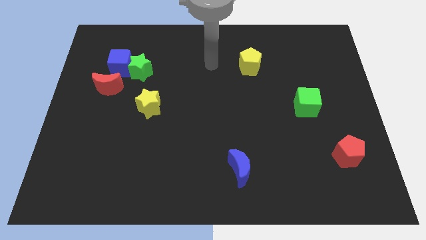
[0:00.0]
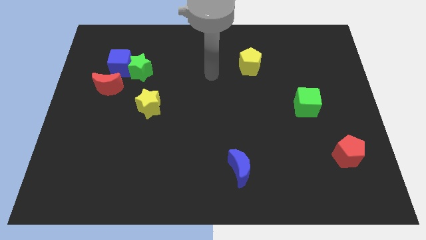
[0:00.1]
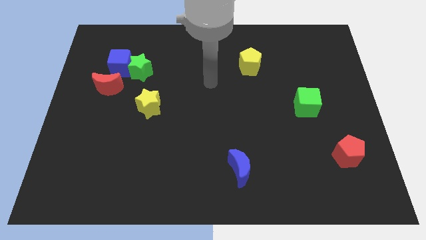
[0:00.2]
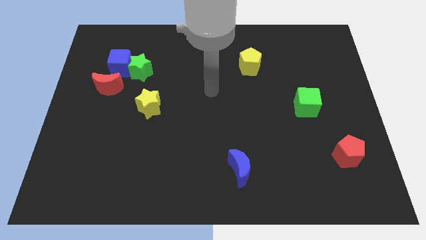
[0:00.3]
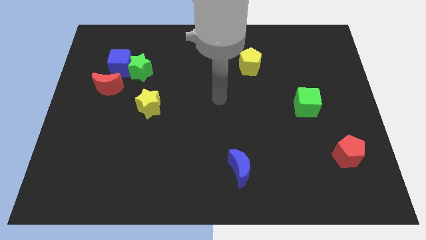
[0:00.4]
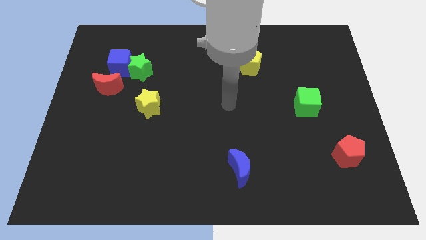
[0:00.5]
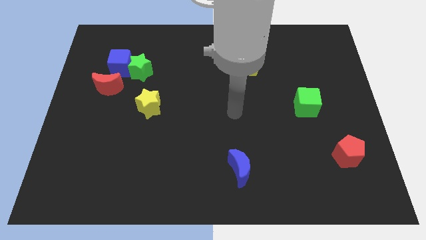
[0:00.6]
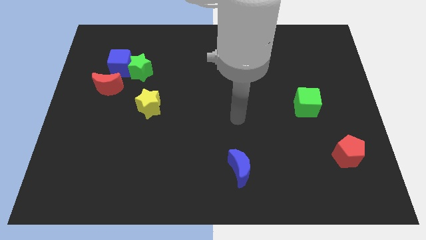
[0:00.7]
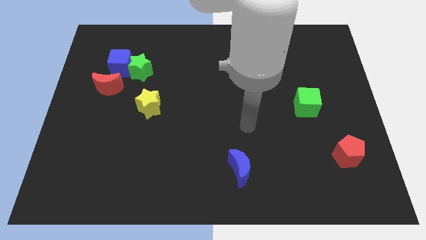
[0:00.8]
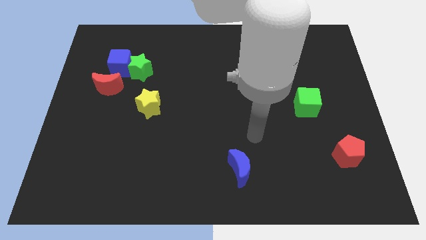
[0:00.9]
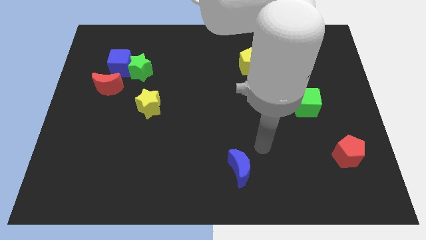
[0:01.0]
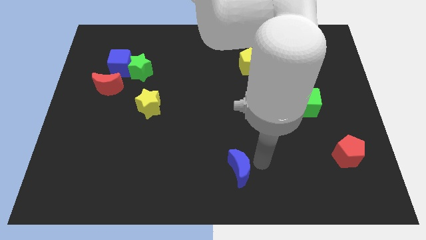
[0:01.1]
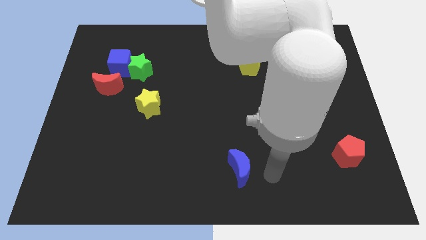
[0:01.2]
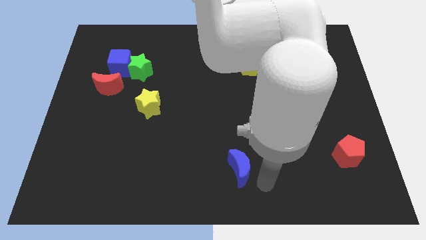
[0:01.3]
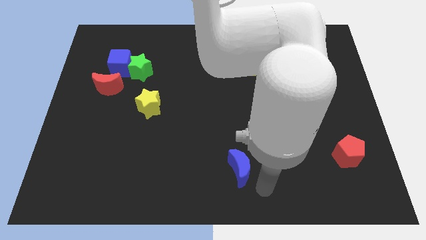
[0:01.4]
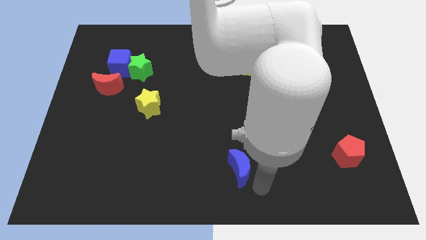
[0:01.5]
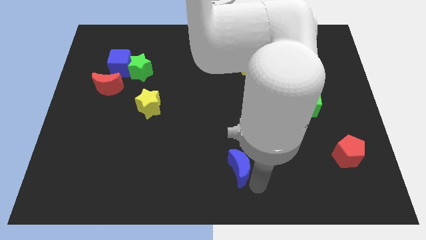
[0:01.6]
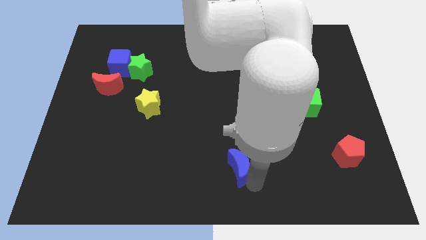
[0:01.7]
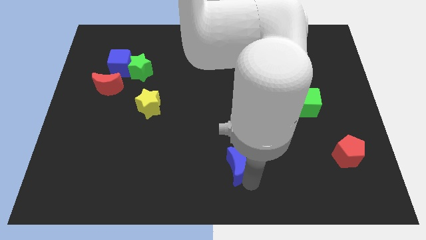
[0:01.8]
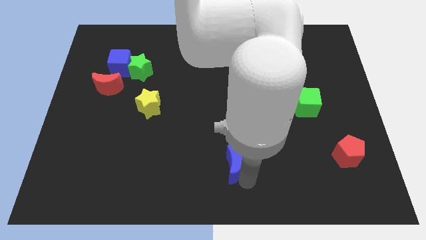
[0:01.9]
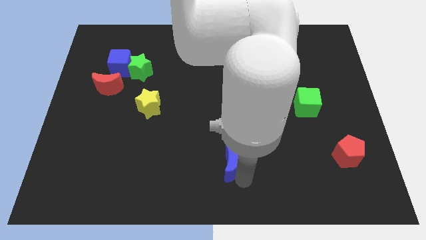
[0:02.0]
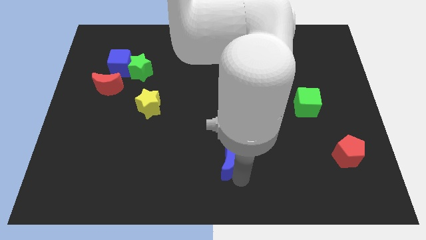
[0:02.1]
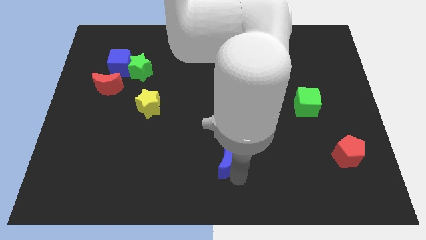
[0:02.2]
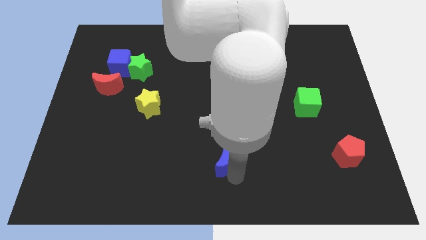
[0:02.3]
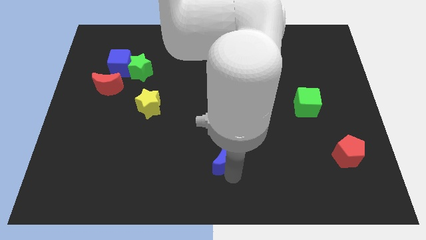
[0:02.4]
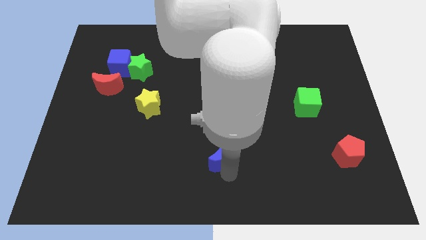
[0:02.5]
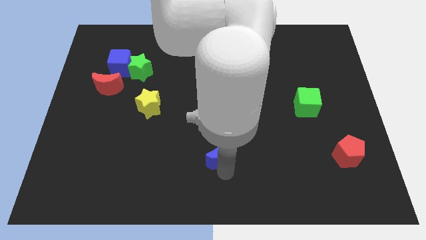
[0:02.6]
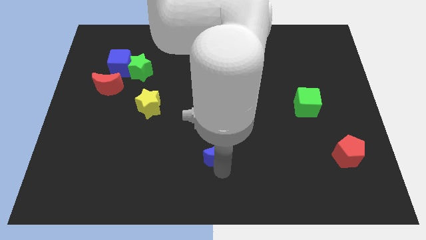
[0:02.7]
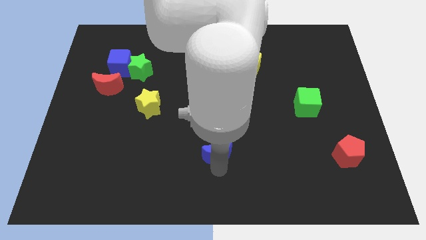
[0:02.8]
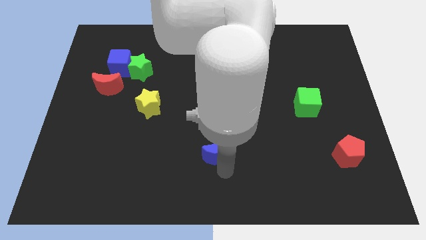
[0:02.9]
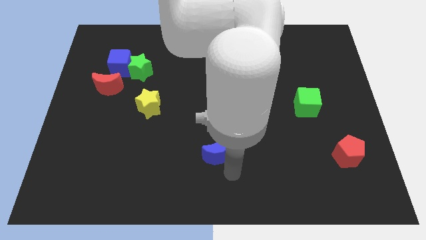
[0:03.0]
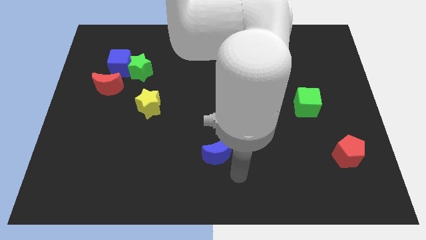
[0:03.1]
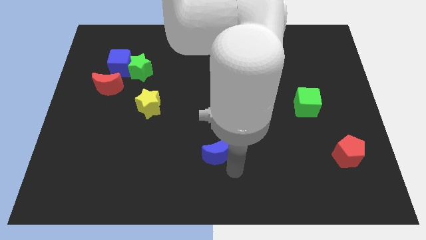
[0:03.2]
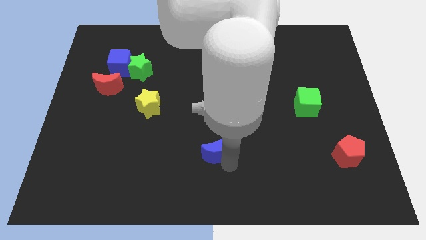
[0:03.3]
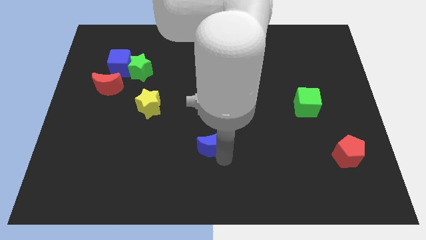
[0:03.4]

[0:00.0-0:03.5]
slide the blue moon diagonally upwards and left a little

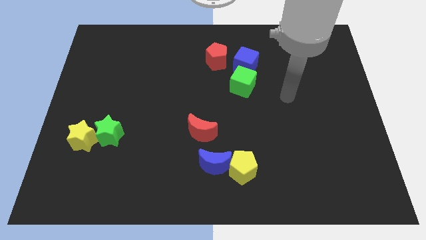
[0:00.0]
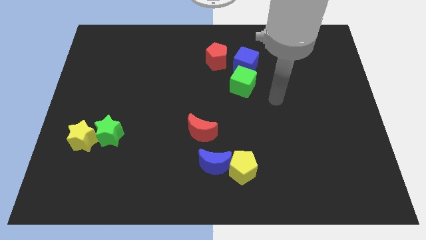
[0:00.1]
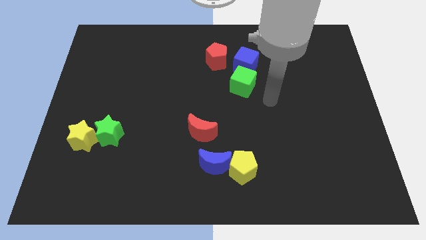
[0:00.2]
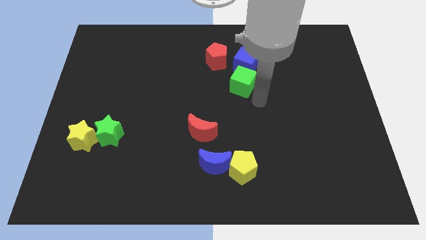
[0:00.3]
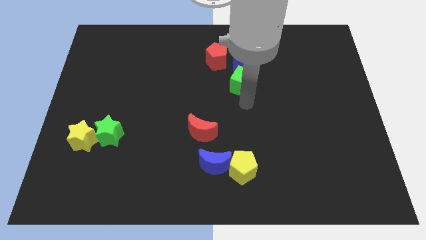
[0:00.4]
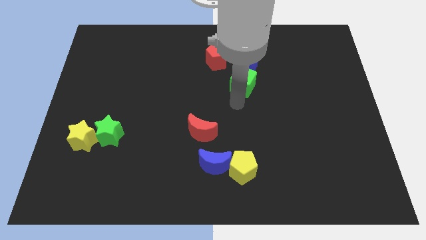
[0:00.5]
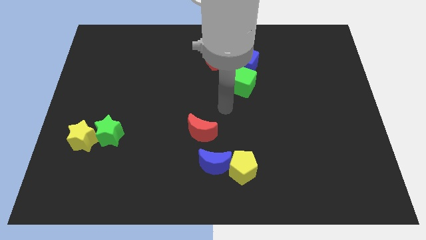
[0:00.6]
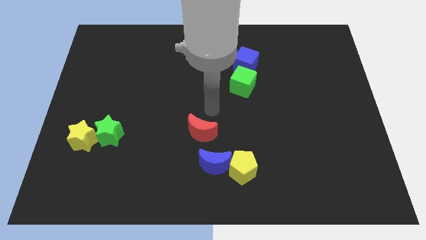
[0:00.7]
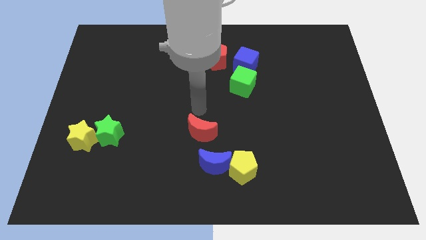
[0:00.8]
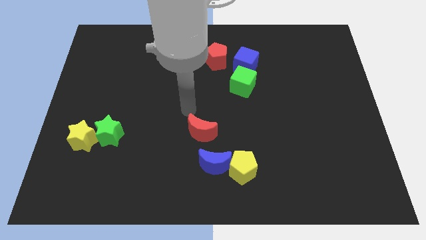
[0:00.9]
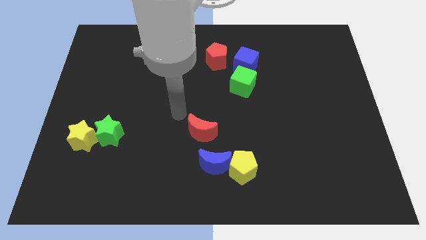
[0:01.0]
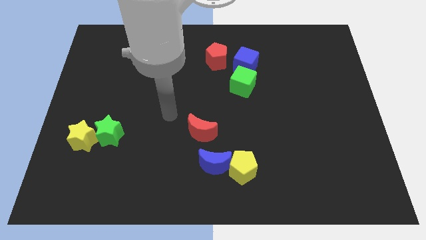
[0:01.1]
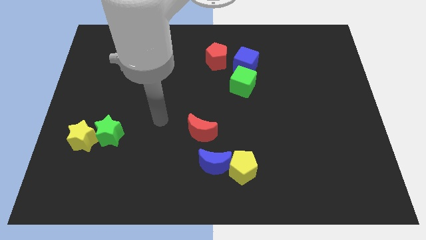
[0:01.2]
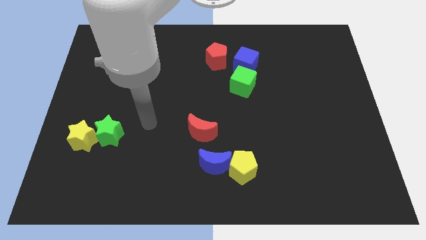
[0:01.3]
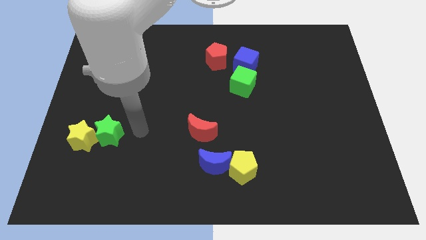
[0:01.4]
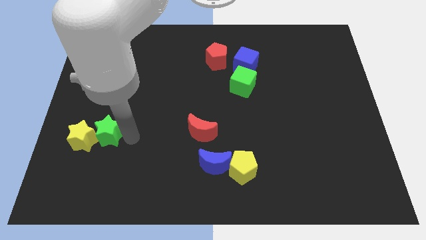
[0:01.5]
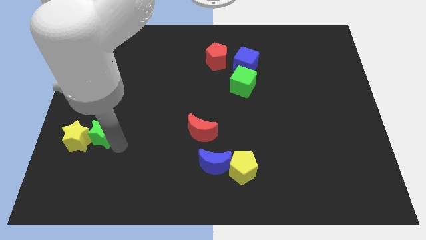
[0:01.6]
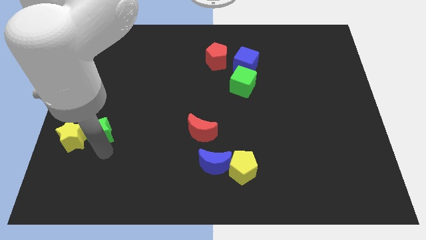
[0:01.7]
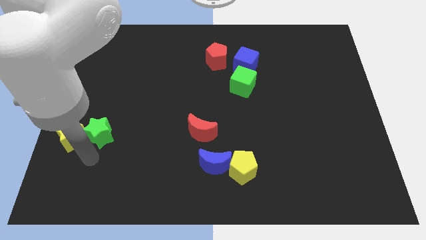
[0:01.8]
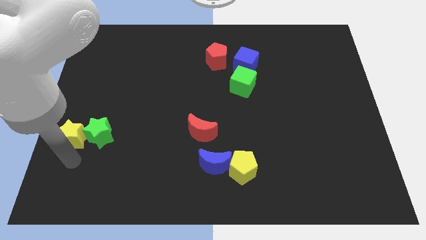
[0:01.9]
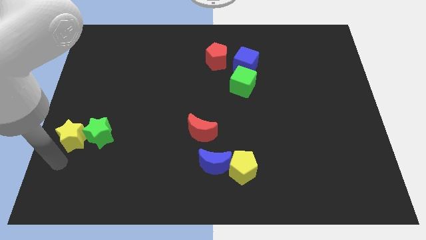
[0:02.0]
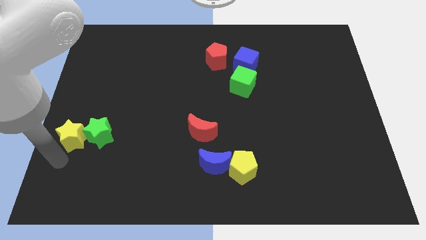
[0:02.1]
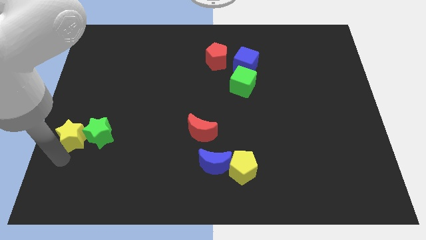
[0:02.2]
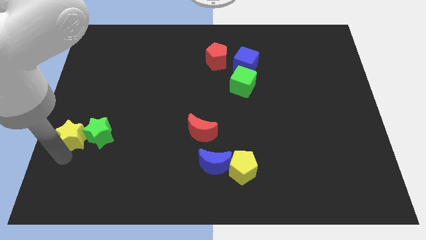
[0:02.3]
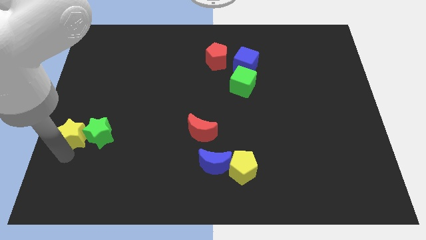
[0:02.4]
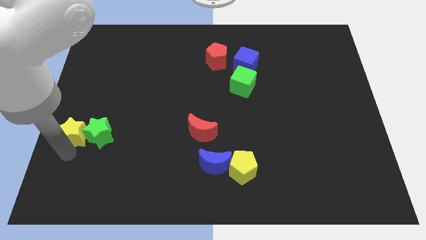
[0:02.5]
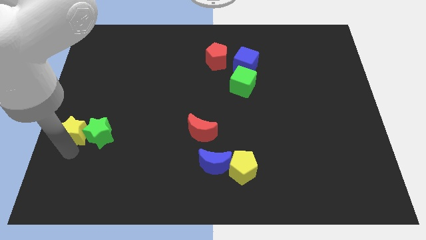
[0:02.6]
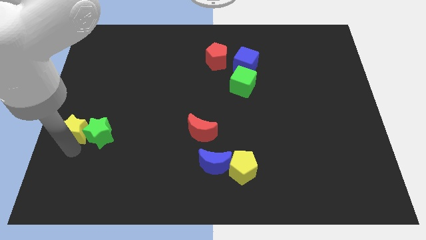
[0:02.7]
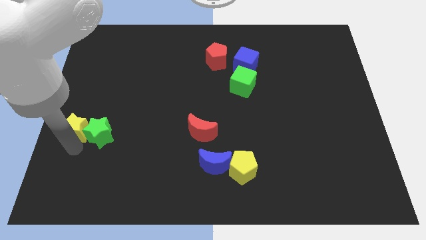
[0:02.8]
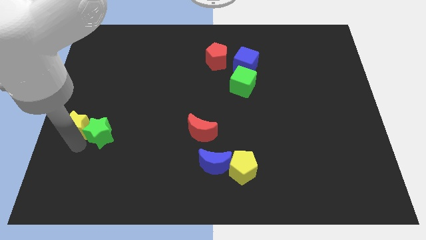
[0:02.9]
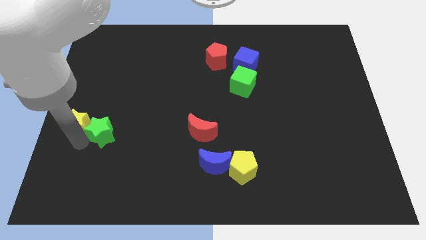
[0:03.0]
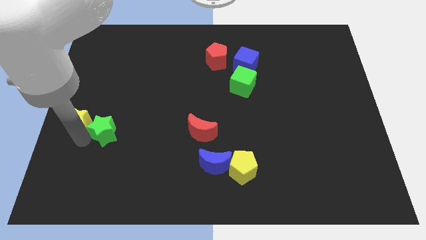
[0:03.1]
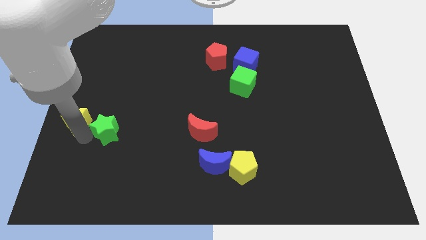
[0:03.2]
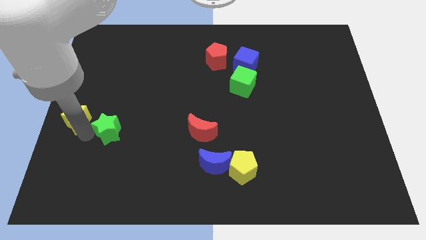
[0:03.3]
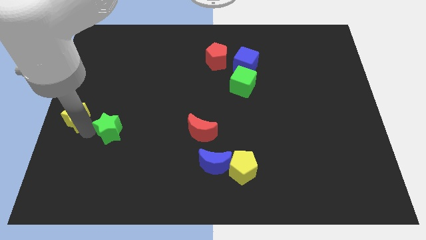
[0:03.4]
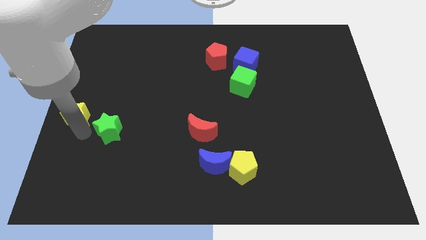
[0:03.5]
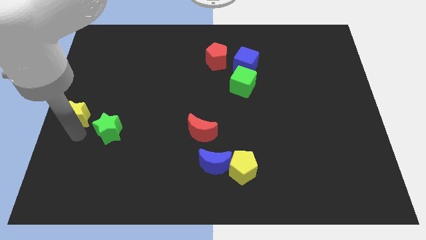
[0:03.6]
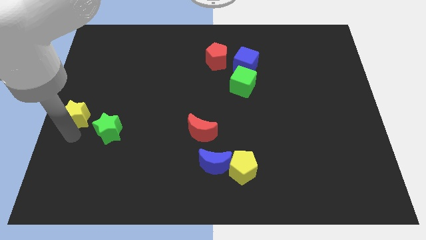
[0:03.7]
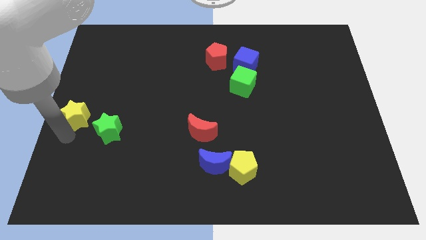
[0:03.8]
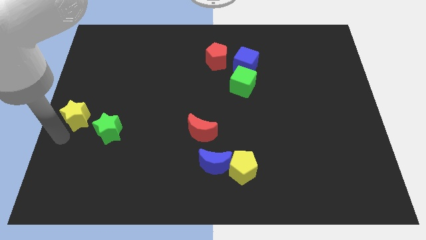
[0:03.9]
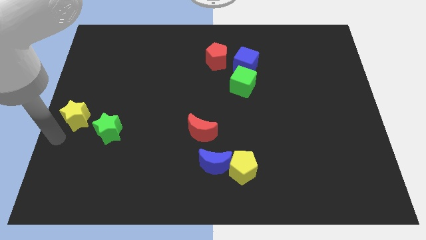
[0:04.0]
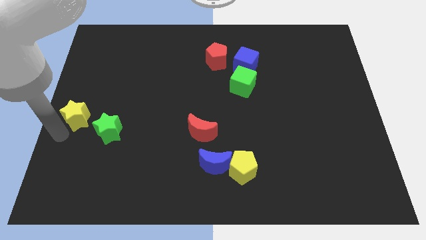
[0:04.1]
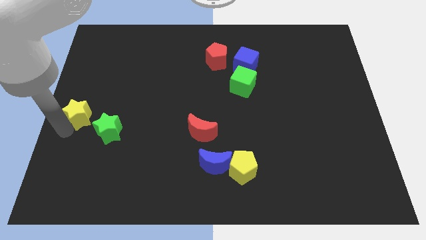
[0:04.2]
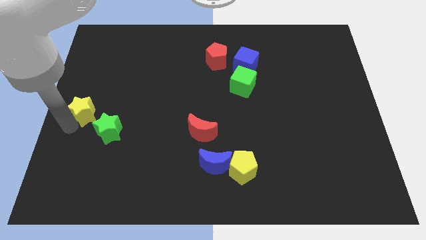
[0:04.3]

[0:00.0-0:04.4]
slightly move the yellow star up

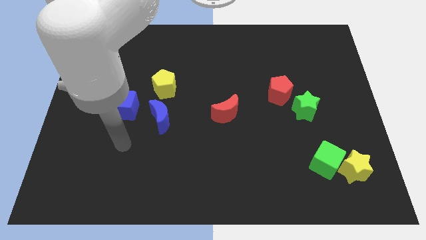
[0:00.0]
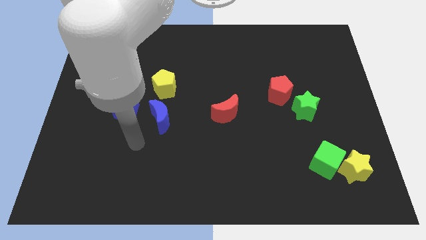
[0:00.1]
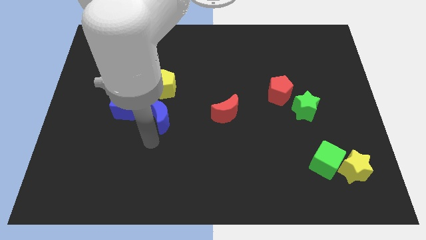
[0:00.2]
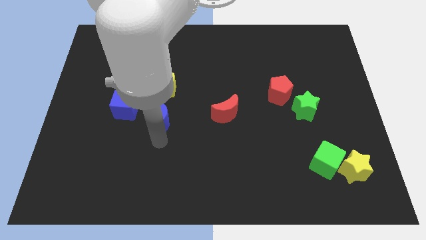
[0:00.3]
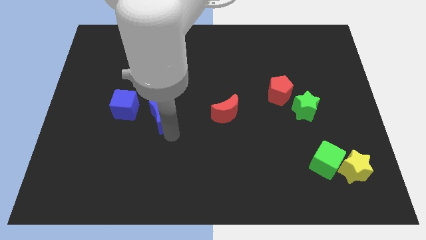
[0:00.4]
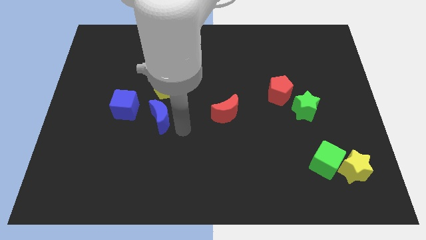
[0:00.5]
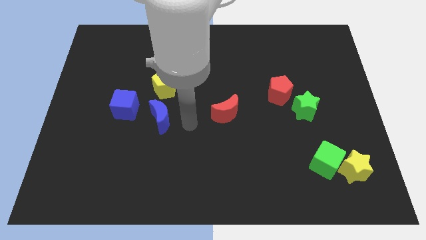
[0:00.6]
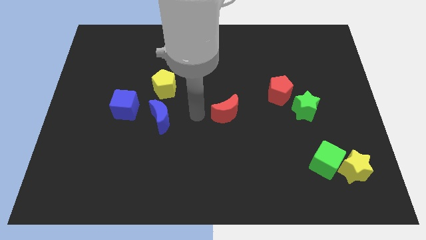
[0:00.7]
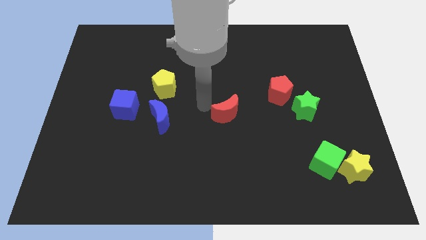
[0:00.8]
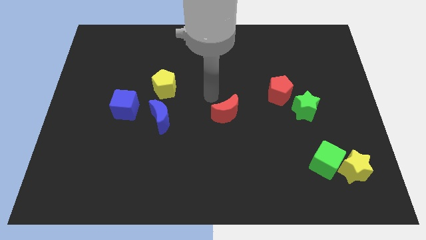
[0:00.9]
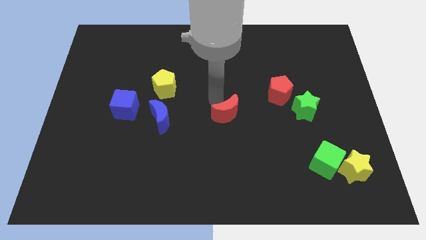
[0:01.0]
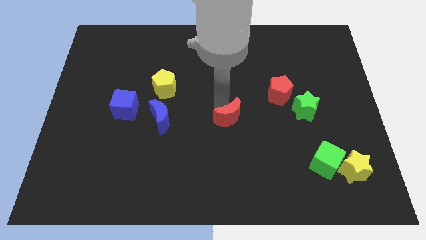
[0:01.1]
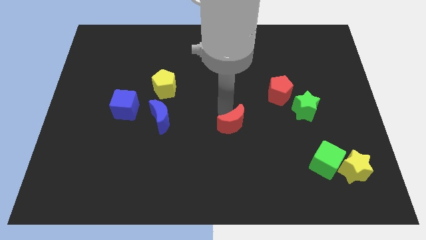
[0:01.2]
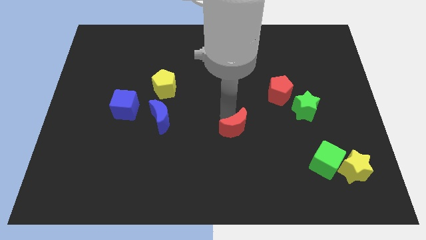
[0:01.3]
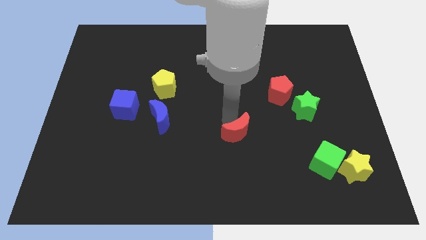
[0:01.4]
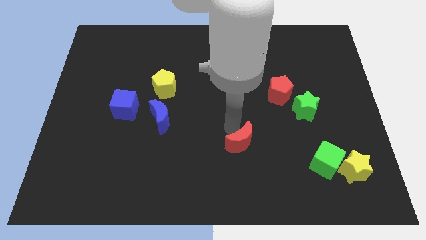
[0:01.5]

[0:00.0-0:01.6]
slightly push the red moon downwards and then to the right
